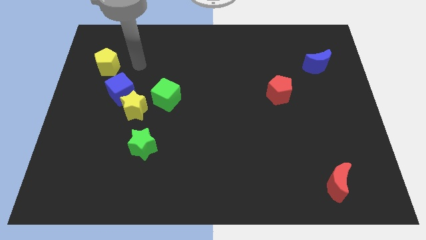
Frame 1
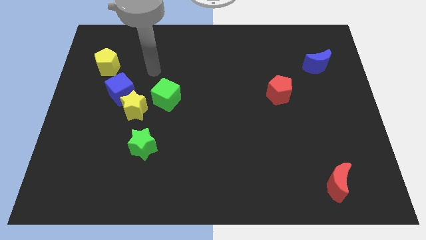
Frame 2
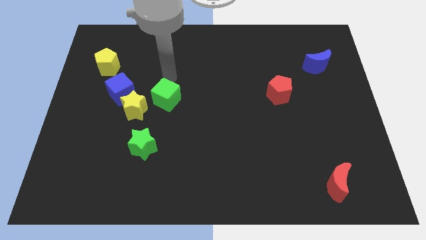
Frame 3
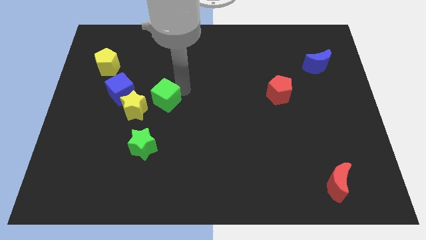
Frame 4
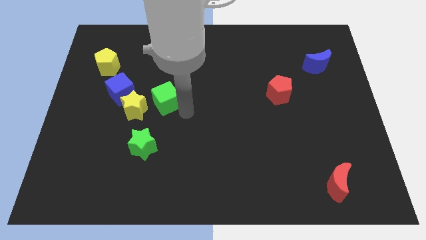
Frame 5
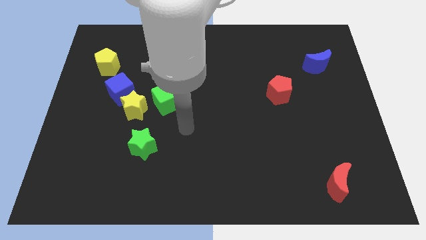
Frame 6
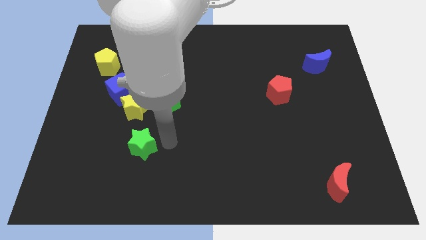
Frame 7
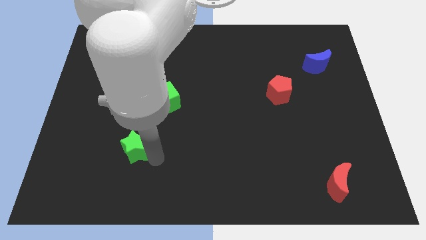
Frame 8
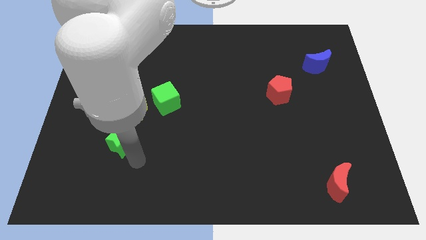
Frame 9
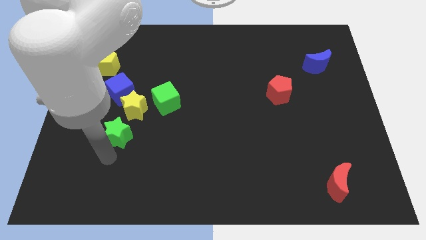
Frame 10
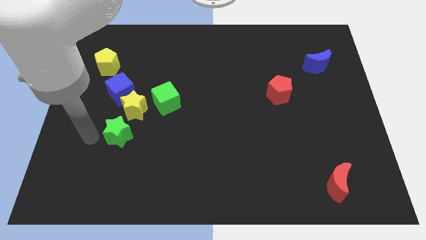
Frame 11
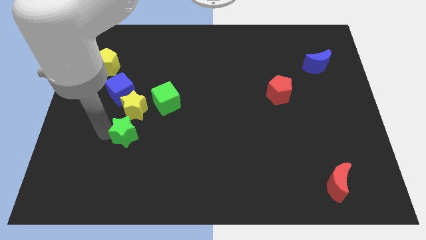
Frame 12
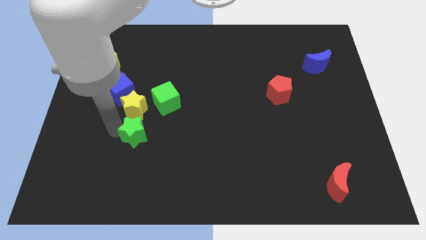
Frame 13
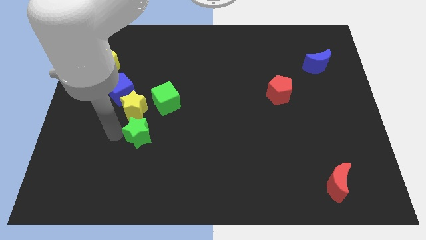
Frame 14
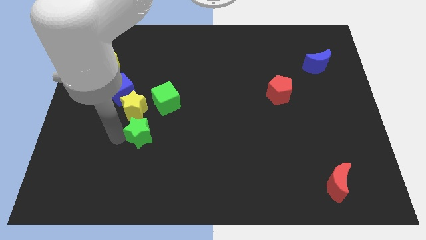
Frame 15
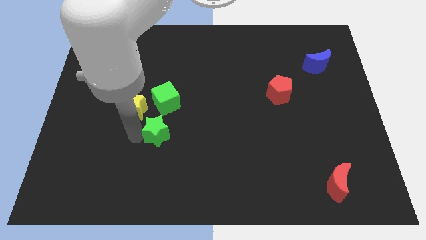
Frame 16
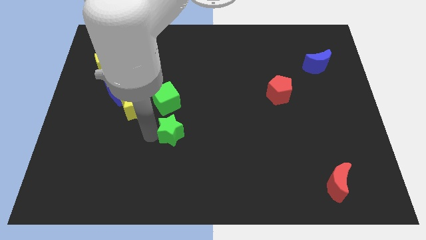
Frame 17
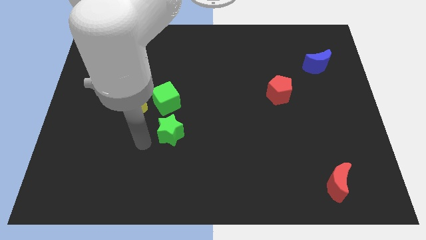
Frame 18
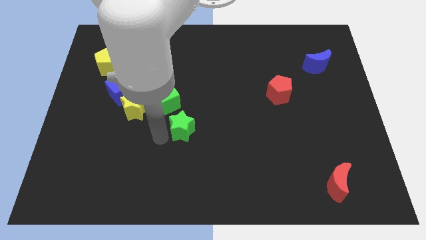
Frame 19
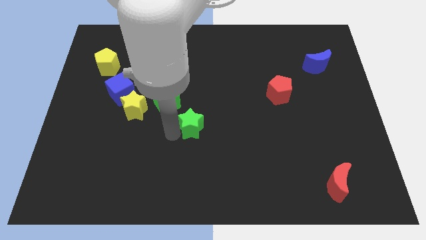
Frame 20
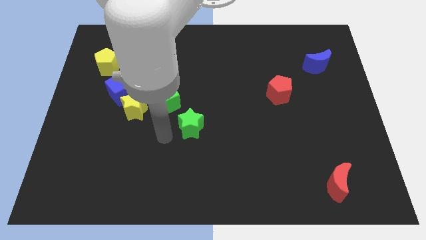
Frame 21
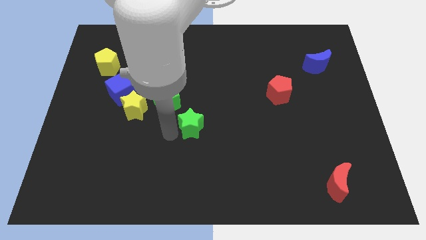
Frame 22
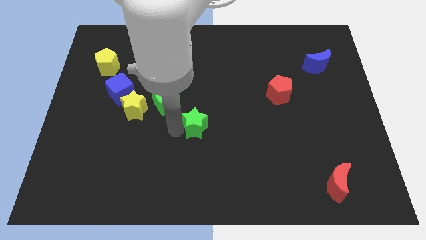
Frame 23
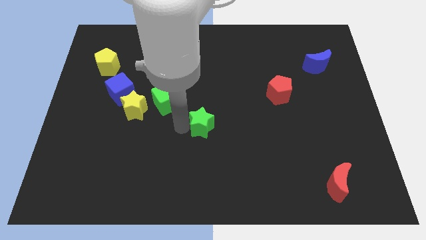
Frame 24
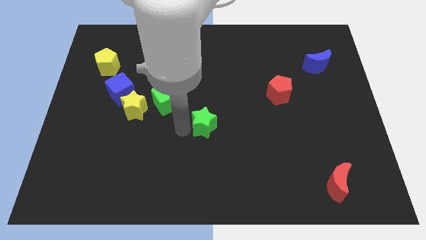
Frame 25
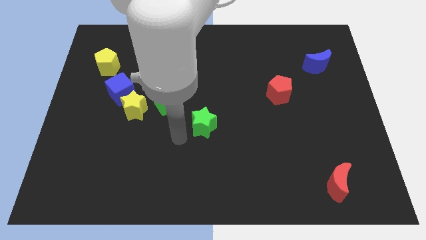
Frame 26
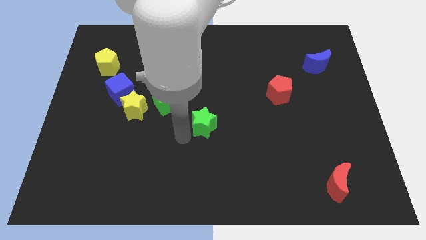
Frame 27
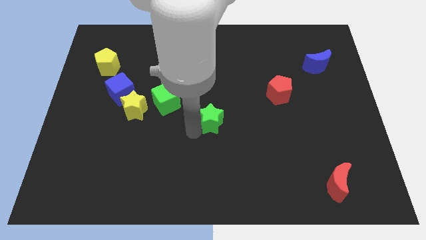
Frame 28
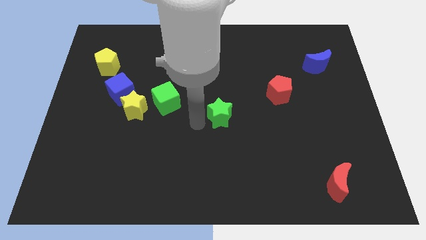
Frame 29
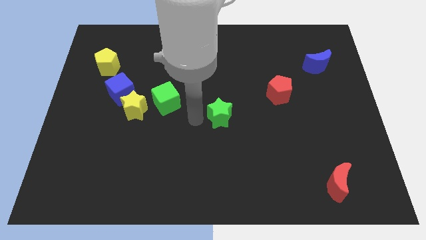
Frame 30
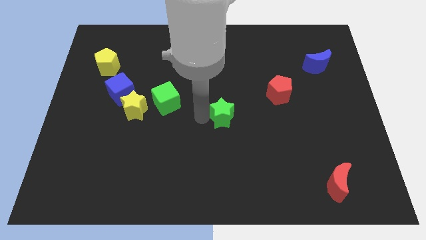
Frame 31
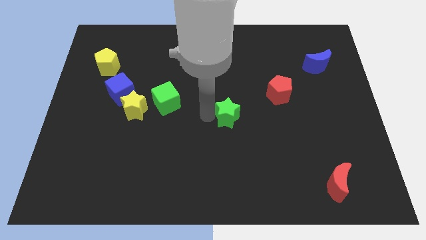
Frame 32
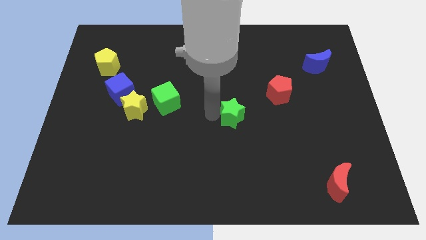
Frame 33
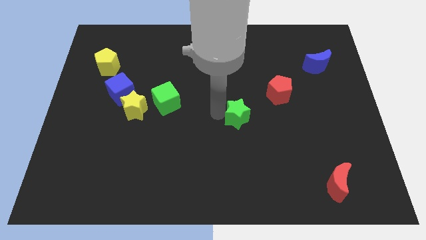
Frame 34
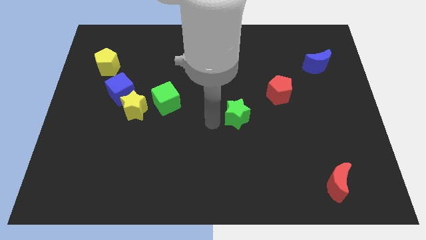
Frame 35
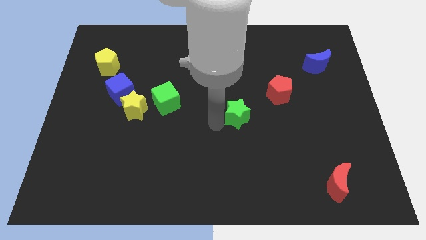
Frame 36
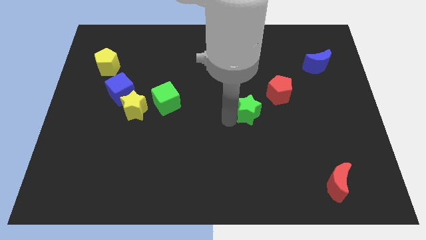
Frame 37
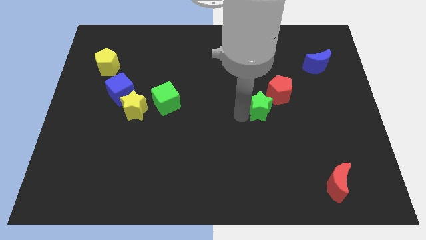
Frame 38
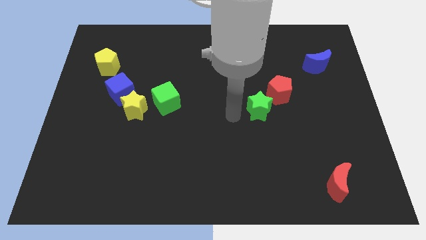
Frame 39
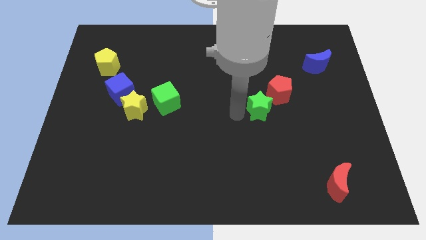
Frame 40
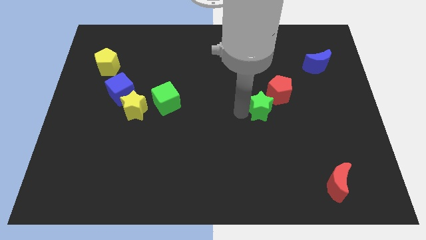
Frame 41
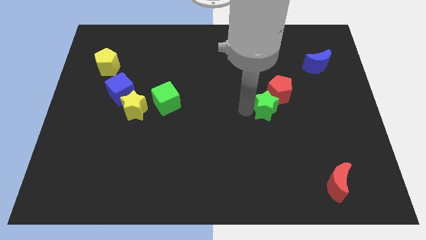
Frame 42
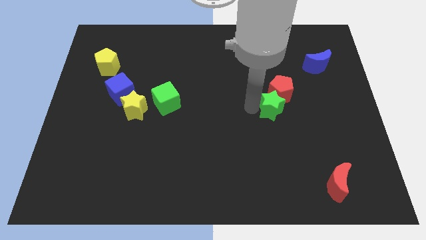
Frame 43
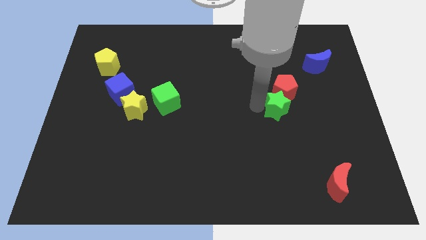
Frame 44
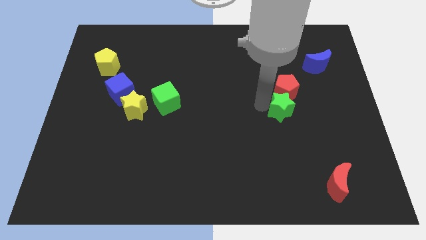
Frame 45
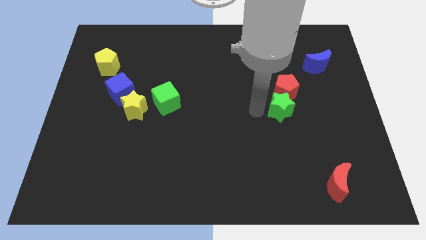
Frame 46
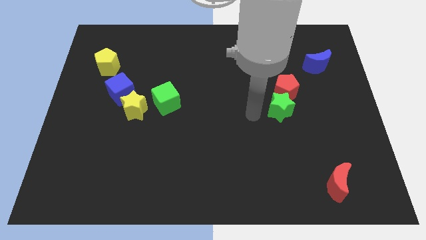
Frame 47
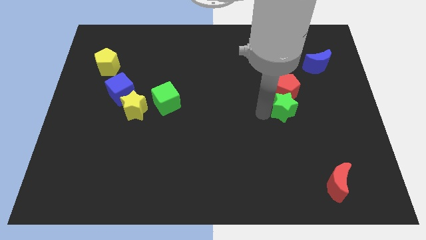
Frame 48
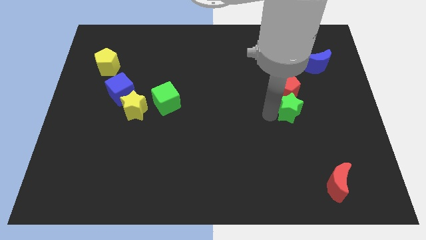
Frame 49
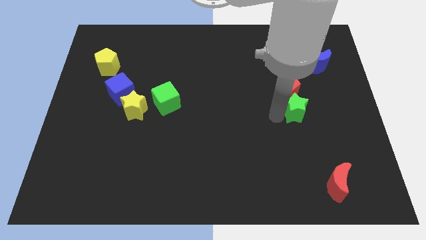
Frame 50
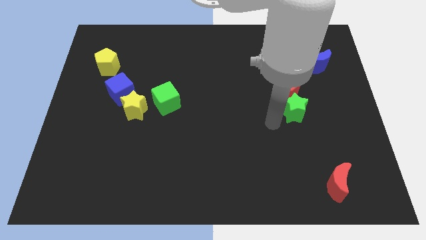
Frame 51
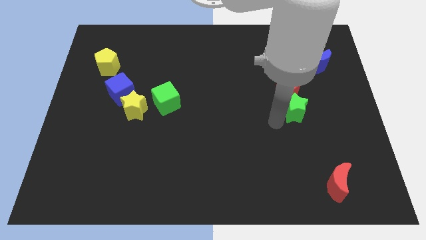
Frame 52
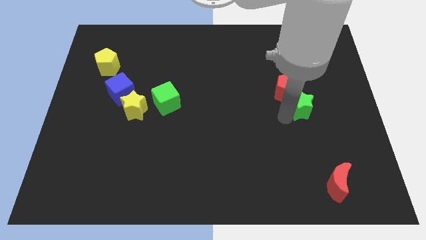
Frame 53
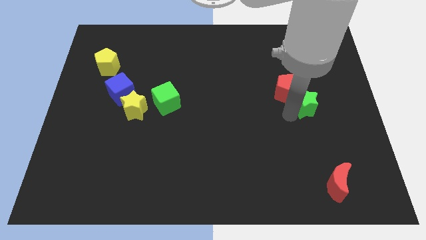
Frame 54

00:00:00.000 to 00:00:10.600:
put the green star to the right of the red pentagon
